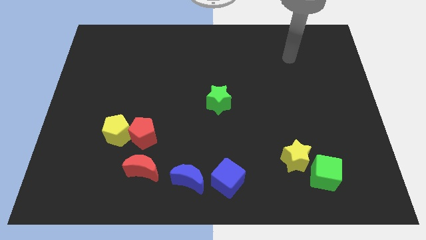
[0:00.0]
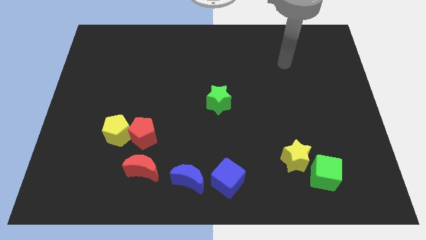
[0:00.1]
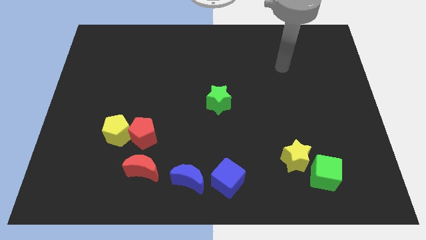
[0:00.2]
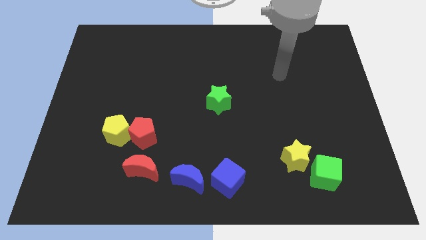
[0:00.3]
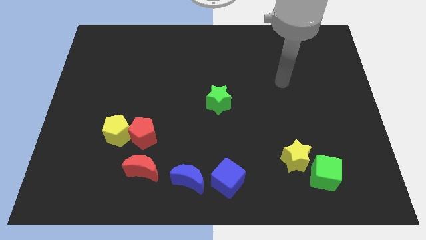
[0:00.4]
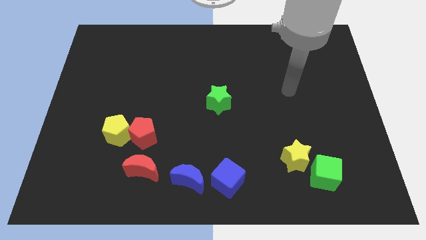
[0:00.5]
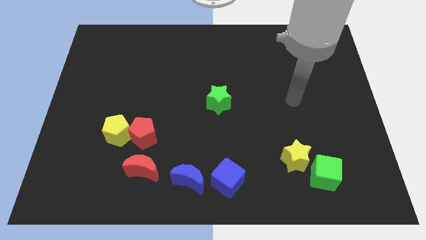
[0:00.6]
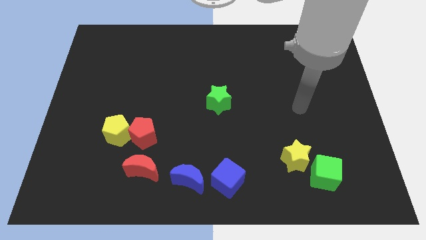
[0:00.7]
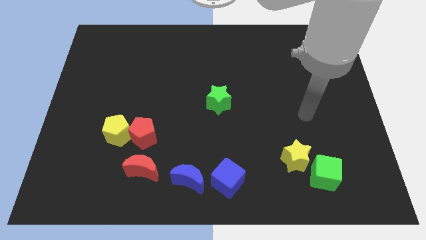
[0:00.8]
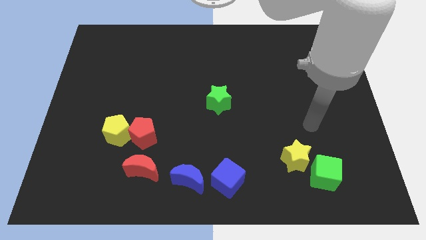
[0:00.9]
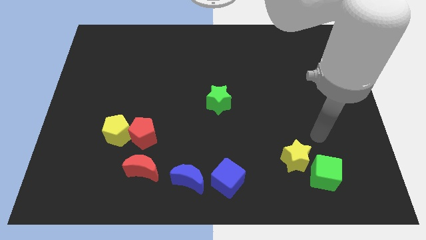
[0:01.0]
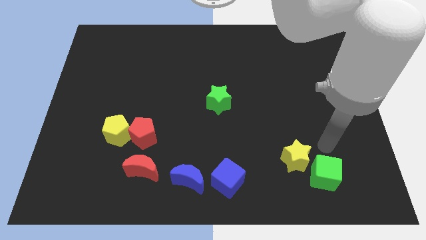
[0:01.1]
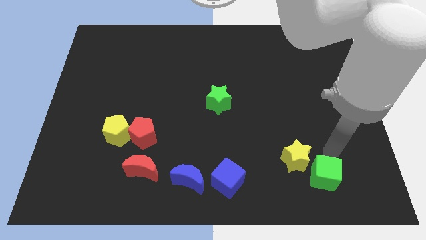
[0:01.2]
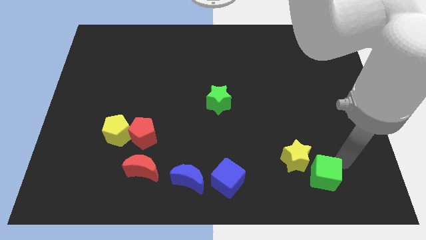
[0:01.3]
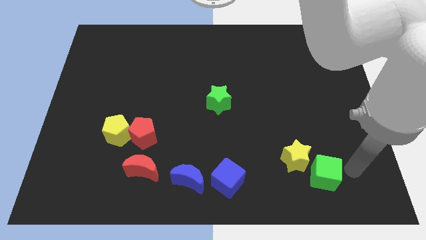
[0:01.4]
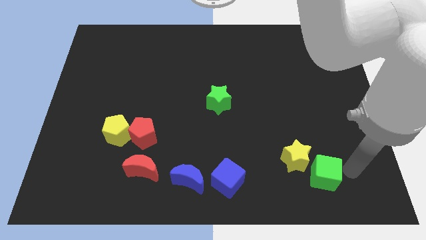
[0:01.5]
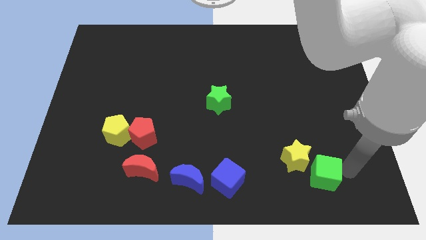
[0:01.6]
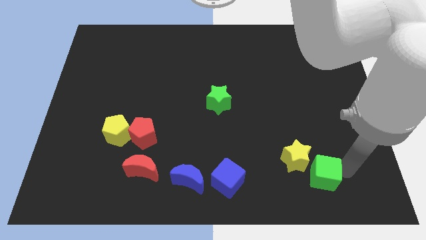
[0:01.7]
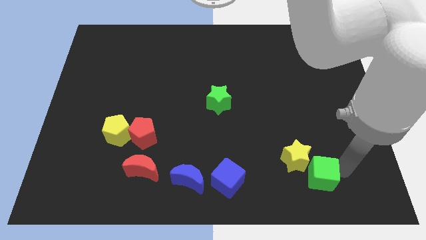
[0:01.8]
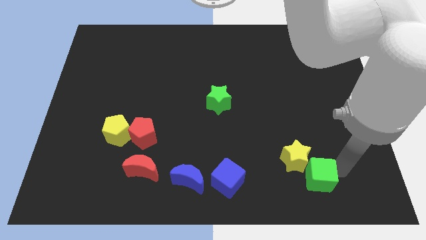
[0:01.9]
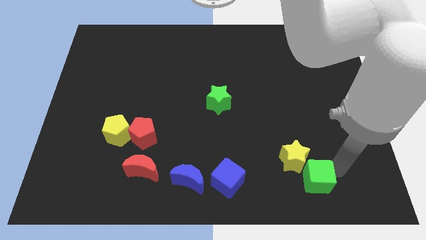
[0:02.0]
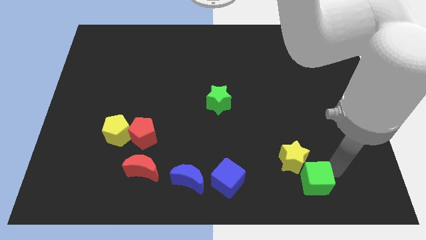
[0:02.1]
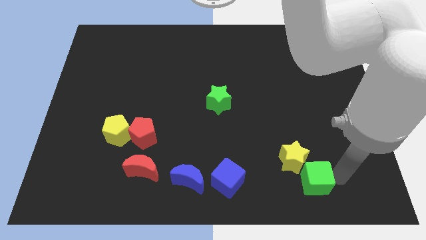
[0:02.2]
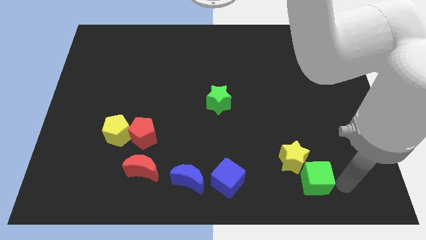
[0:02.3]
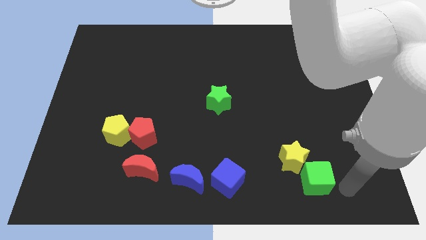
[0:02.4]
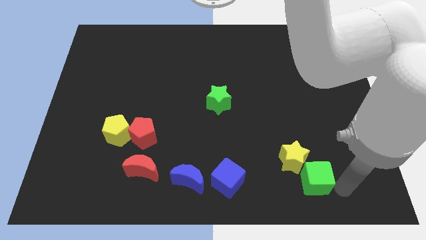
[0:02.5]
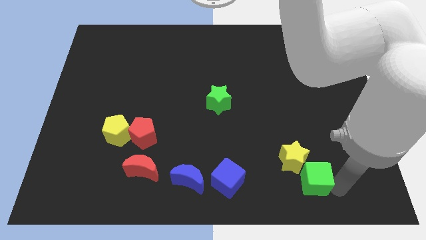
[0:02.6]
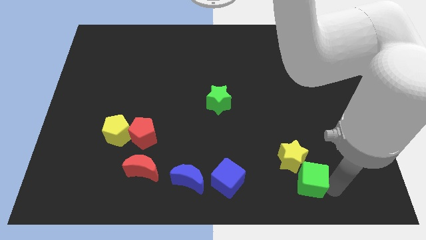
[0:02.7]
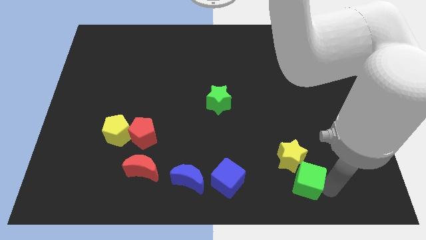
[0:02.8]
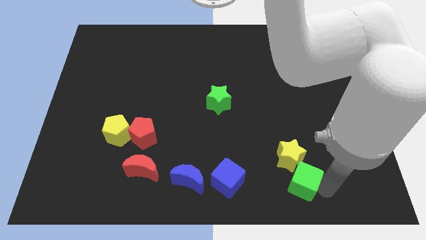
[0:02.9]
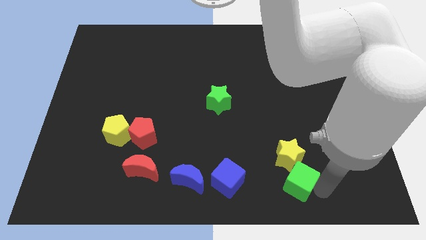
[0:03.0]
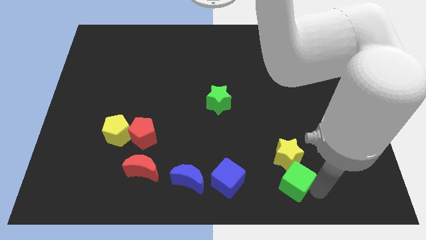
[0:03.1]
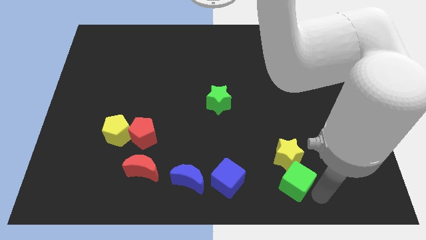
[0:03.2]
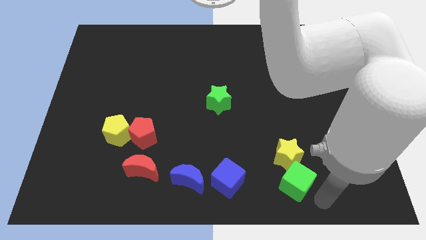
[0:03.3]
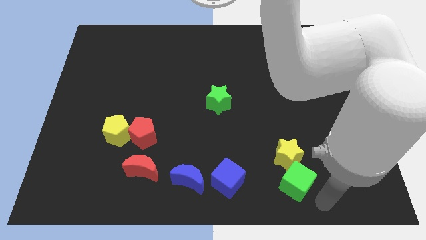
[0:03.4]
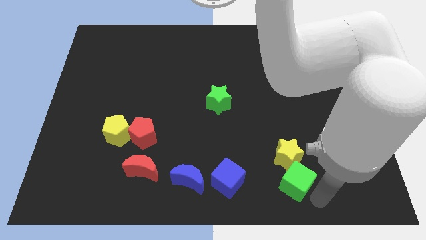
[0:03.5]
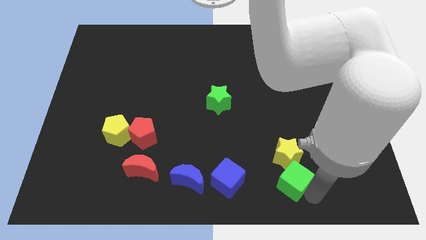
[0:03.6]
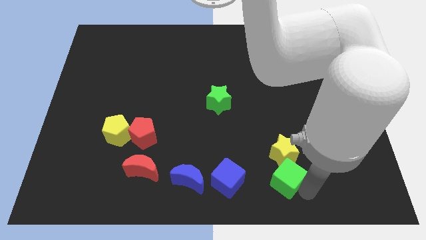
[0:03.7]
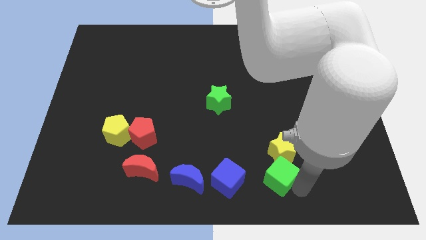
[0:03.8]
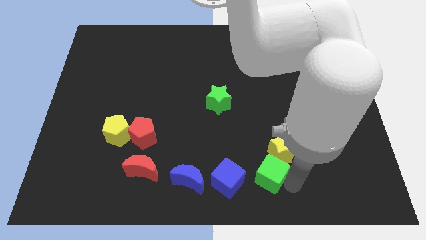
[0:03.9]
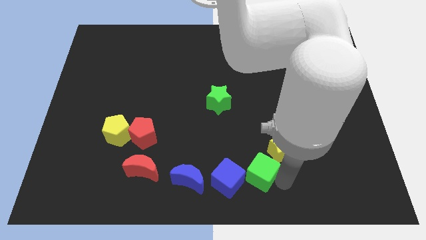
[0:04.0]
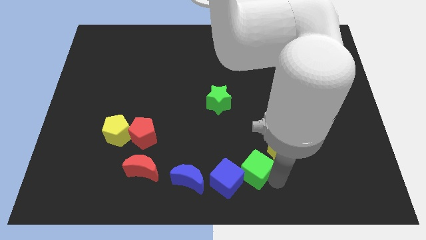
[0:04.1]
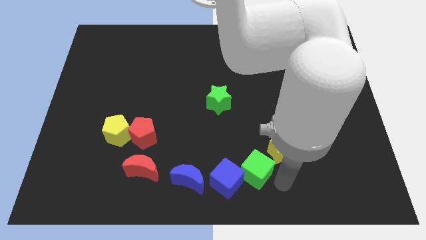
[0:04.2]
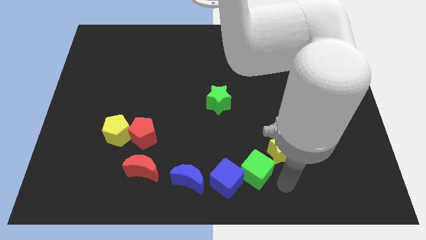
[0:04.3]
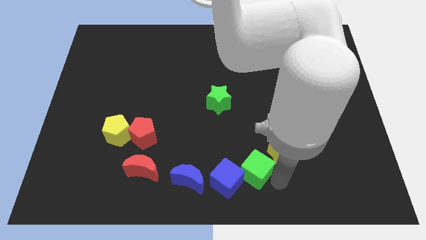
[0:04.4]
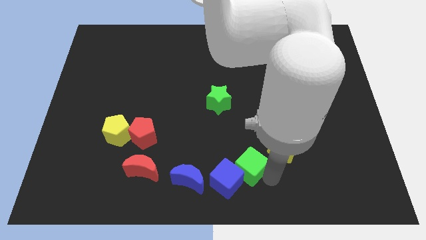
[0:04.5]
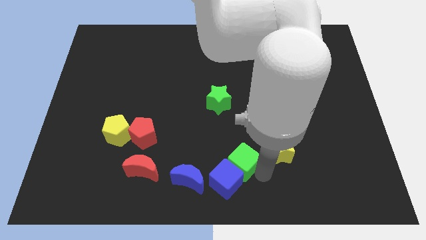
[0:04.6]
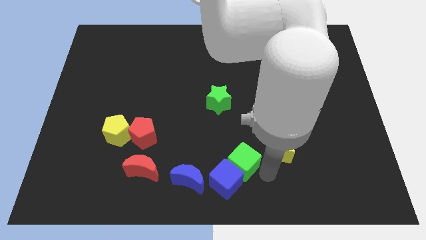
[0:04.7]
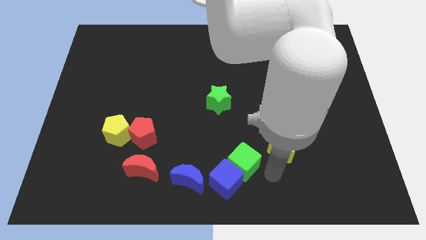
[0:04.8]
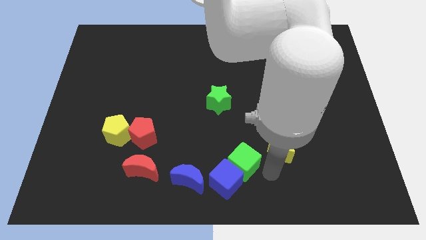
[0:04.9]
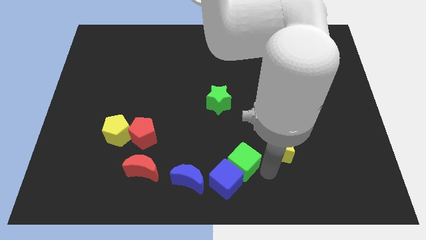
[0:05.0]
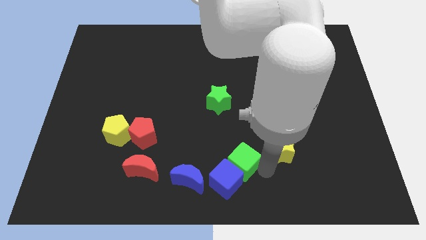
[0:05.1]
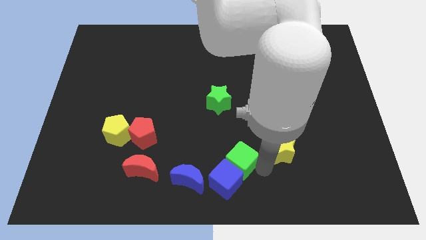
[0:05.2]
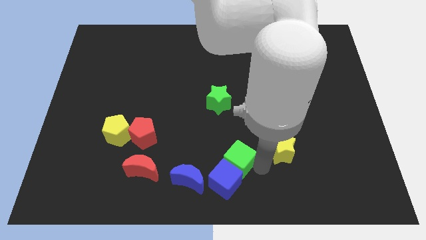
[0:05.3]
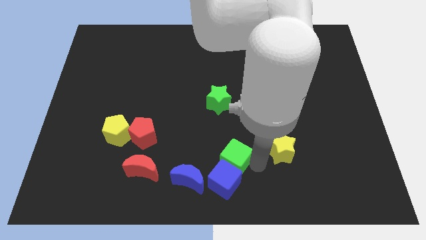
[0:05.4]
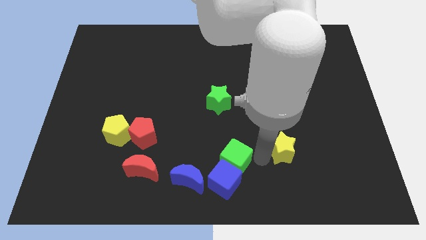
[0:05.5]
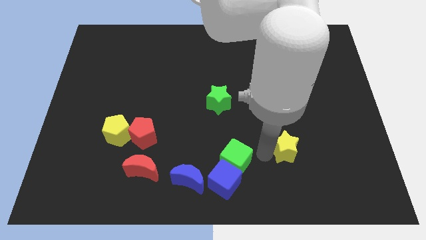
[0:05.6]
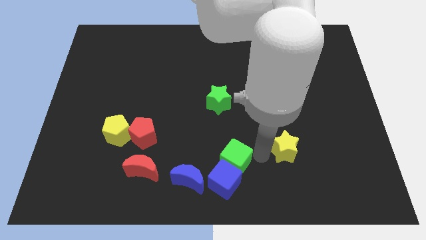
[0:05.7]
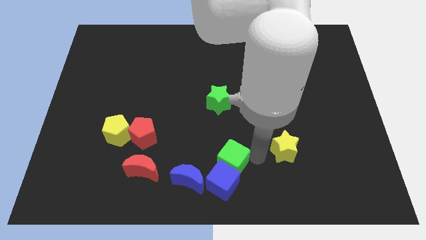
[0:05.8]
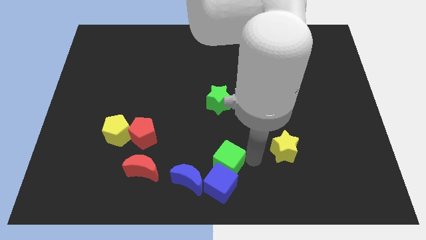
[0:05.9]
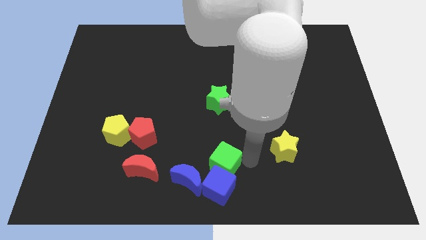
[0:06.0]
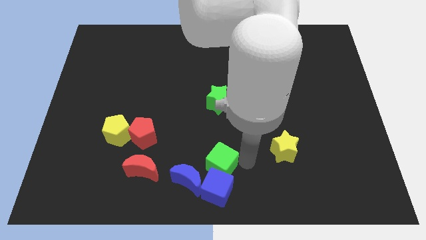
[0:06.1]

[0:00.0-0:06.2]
slide the green cube right of the red moon
